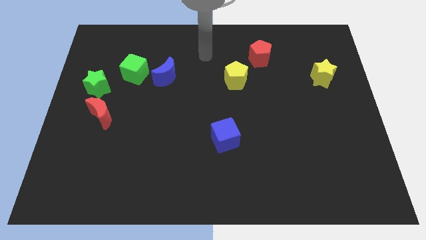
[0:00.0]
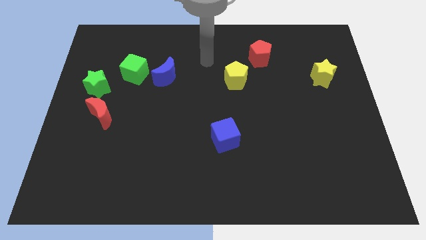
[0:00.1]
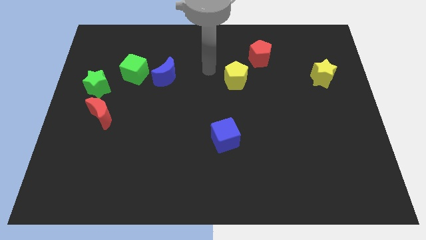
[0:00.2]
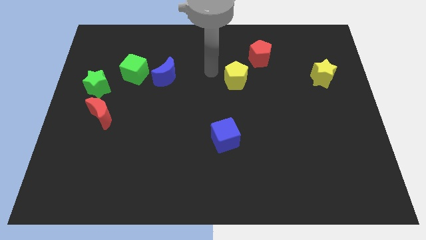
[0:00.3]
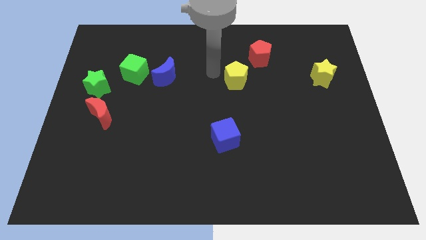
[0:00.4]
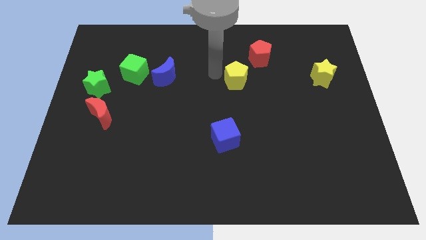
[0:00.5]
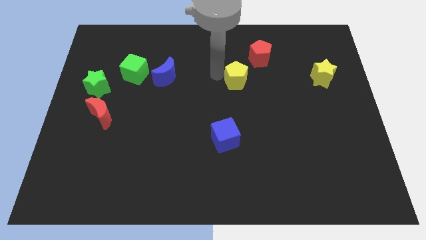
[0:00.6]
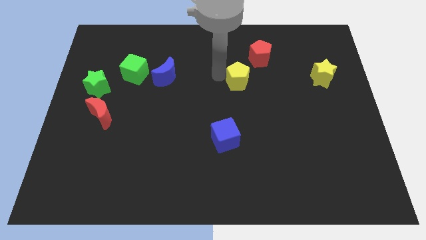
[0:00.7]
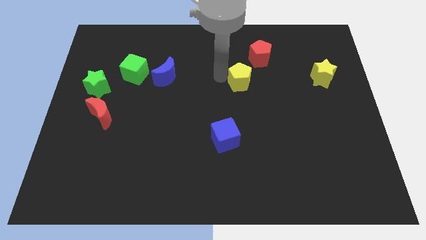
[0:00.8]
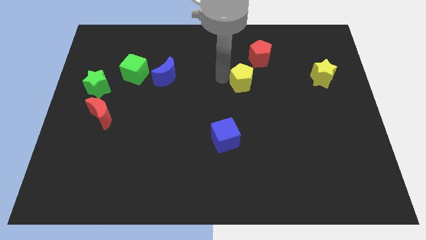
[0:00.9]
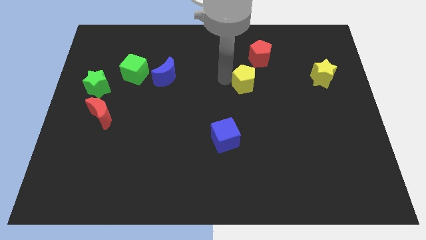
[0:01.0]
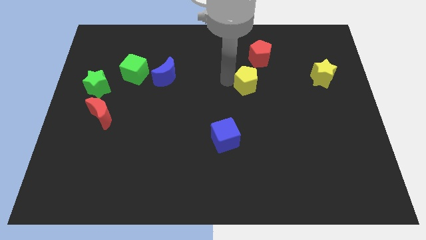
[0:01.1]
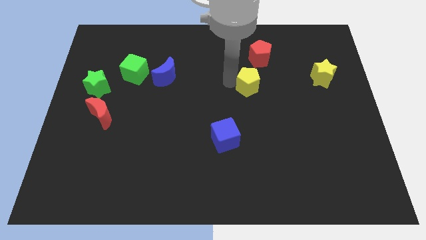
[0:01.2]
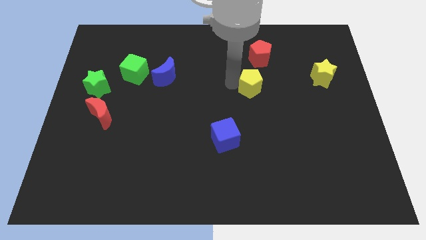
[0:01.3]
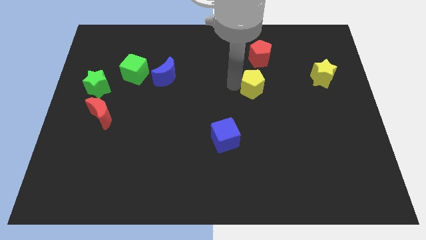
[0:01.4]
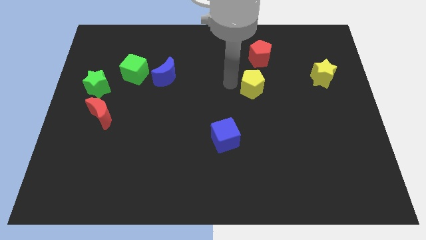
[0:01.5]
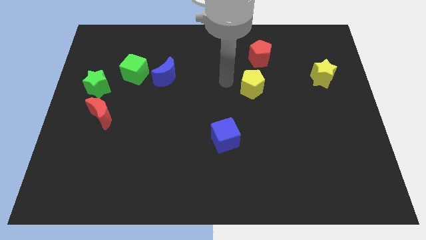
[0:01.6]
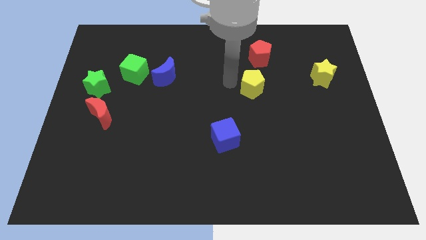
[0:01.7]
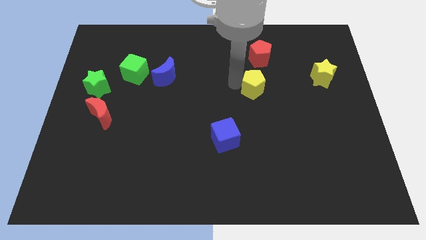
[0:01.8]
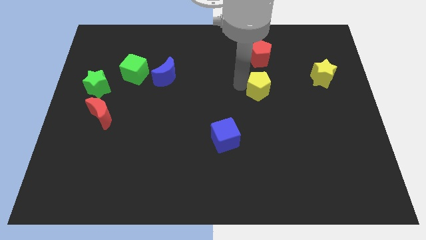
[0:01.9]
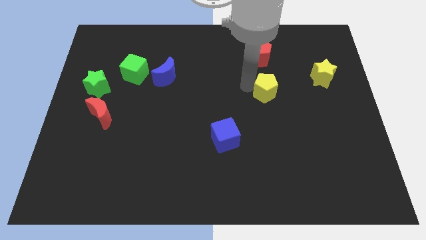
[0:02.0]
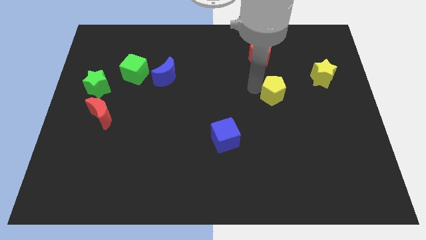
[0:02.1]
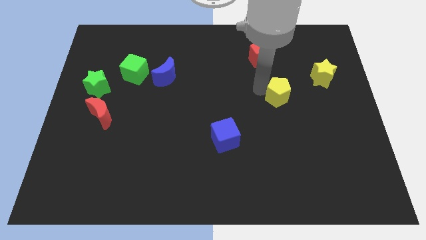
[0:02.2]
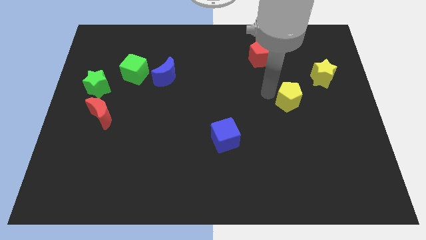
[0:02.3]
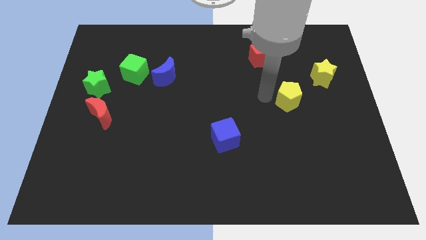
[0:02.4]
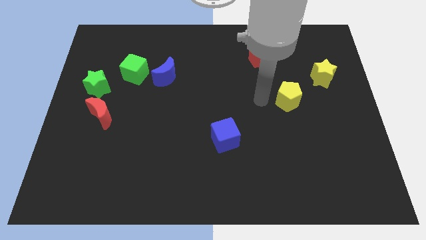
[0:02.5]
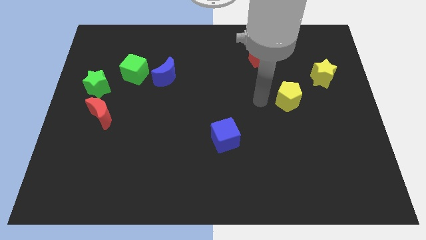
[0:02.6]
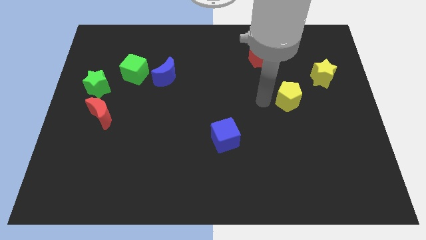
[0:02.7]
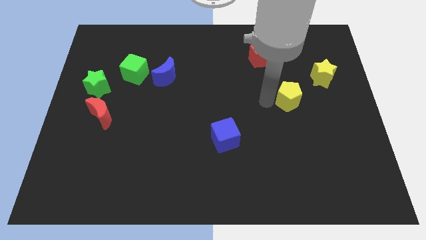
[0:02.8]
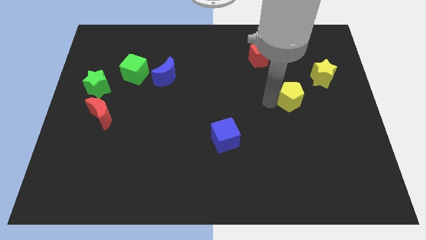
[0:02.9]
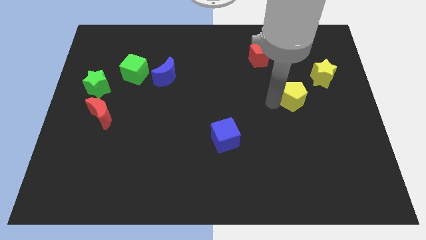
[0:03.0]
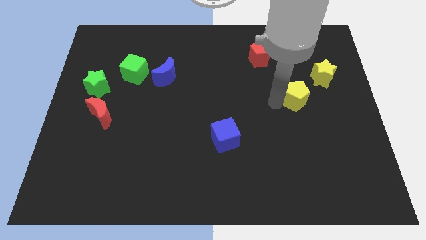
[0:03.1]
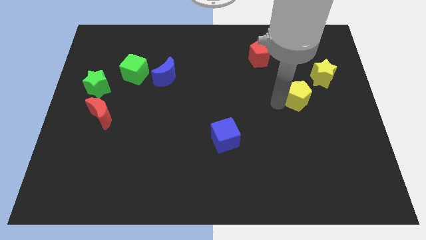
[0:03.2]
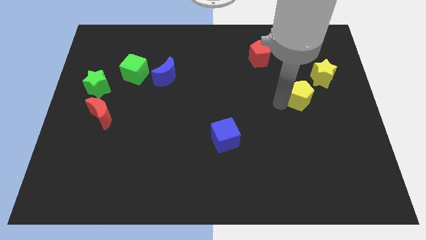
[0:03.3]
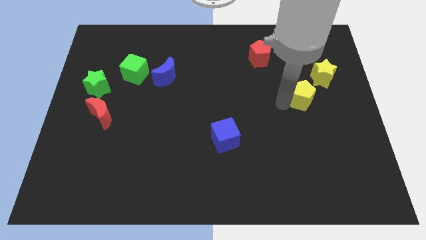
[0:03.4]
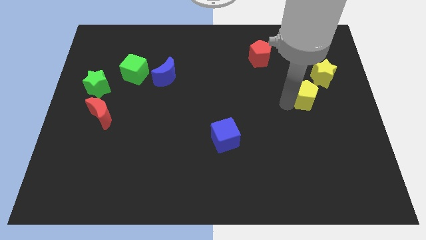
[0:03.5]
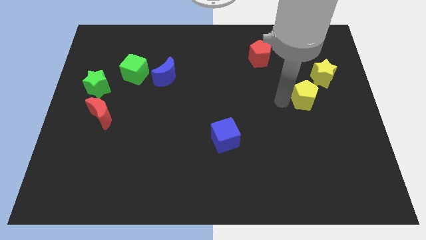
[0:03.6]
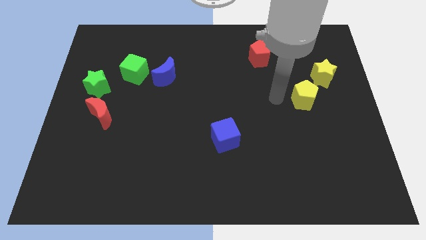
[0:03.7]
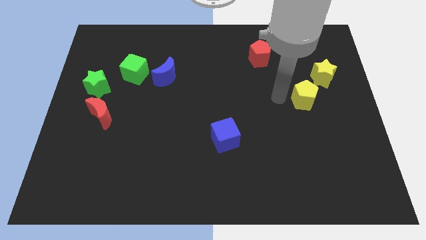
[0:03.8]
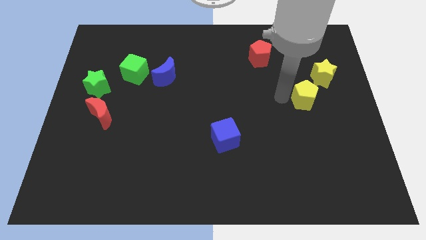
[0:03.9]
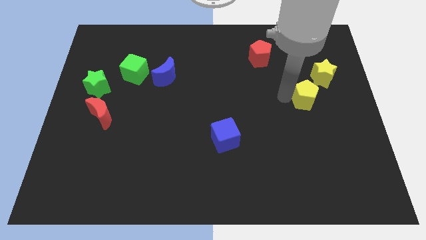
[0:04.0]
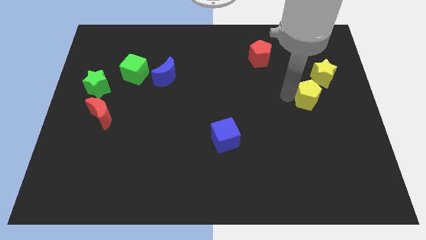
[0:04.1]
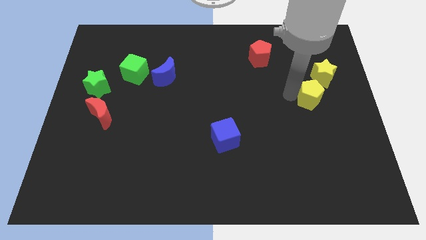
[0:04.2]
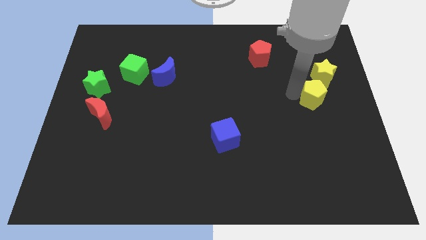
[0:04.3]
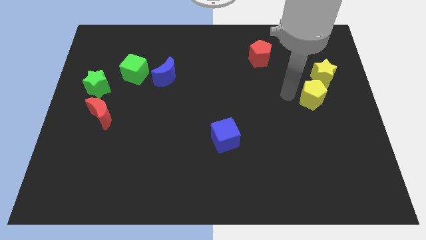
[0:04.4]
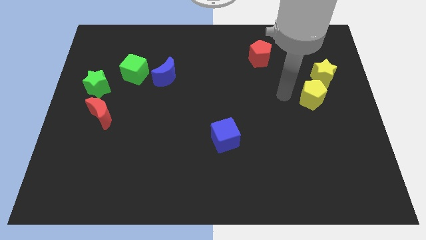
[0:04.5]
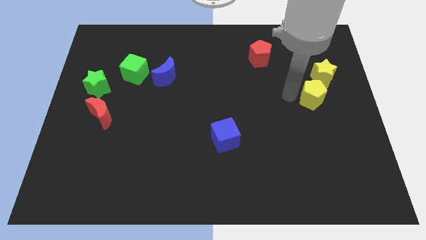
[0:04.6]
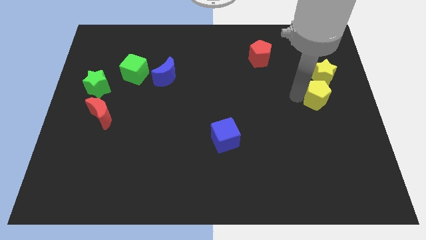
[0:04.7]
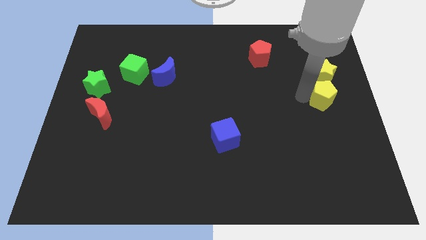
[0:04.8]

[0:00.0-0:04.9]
push the yellow pentagon to the right side of the board

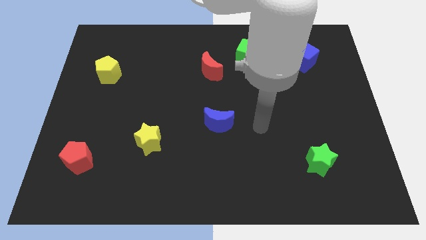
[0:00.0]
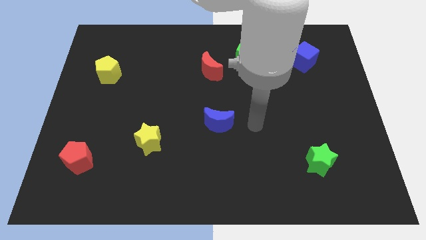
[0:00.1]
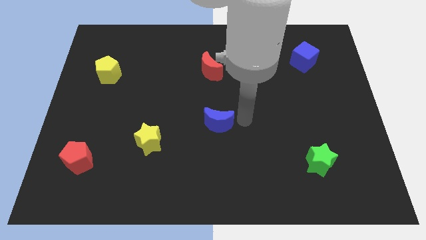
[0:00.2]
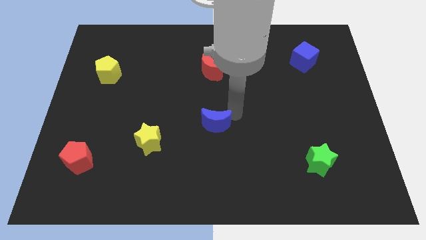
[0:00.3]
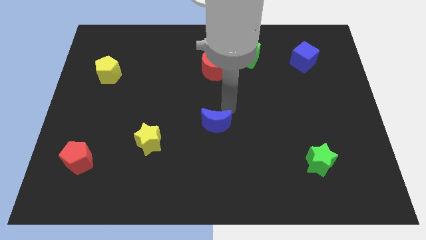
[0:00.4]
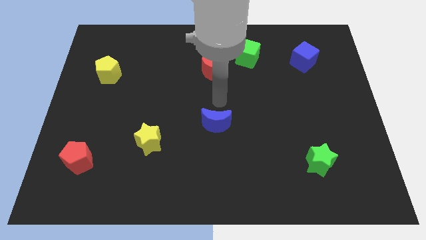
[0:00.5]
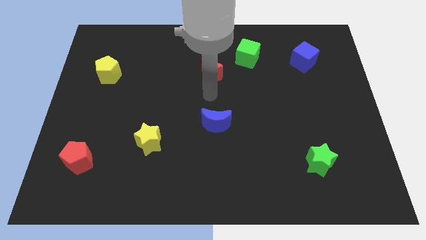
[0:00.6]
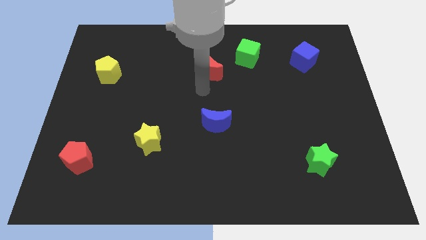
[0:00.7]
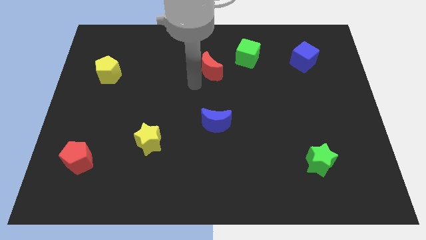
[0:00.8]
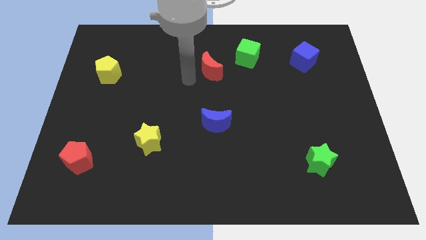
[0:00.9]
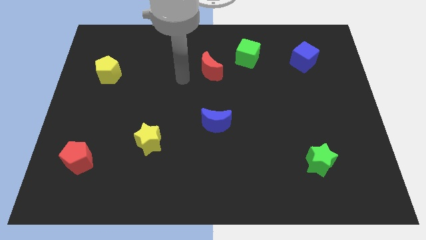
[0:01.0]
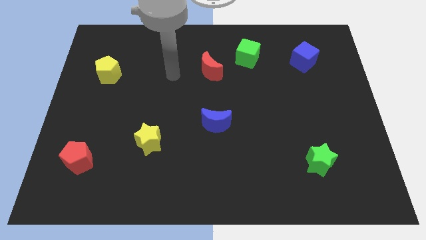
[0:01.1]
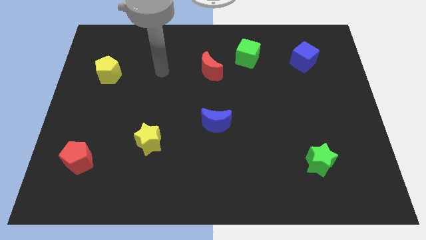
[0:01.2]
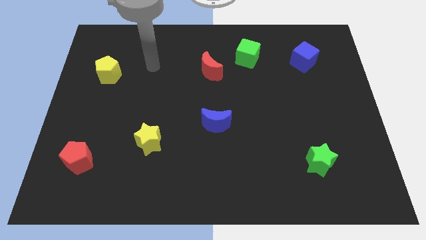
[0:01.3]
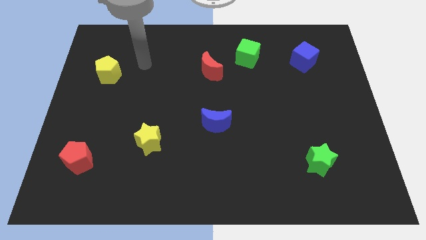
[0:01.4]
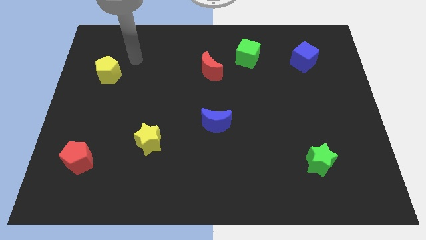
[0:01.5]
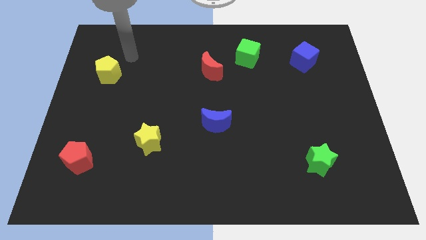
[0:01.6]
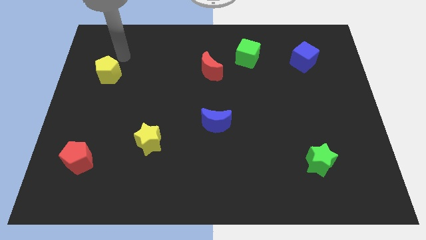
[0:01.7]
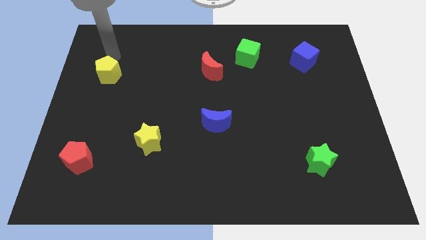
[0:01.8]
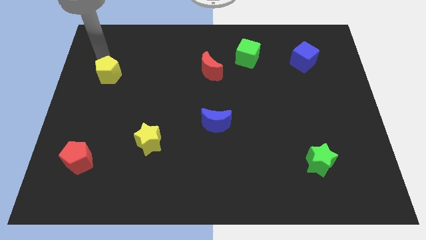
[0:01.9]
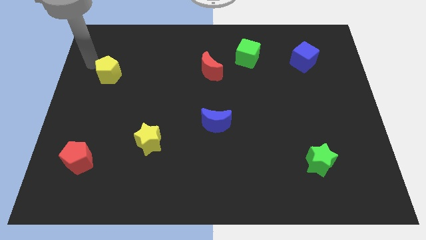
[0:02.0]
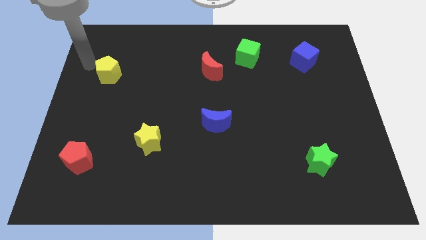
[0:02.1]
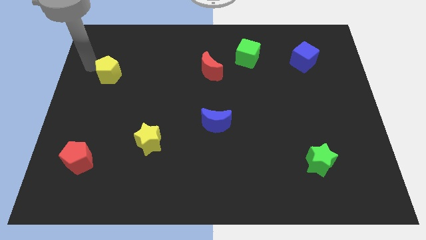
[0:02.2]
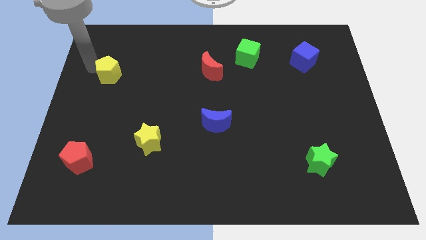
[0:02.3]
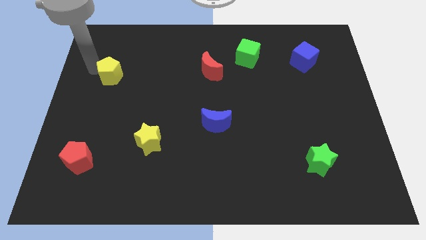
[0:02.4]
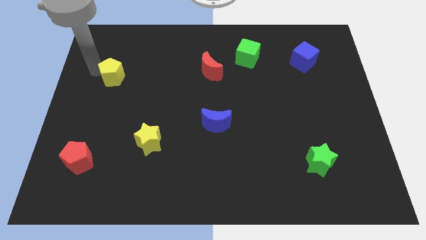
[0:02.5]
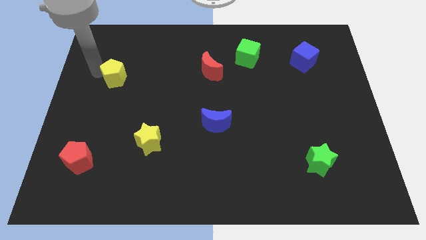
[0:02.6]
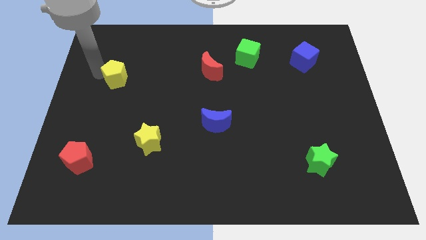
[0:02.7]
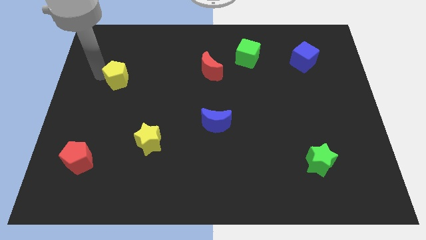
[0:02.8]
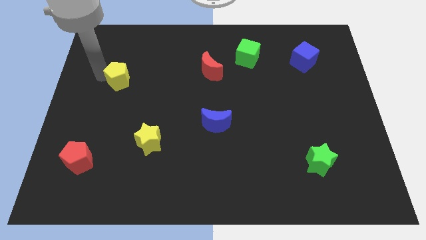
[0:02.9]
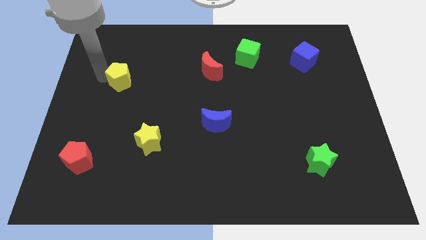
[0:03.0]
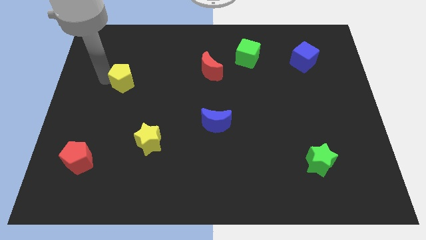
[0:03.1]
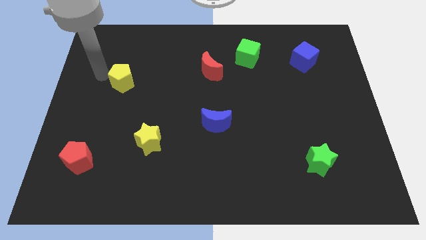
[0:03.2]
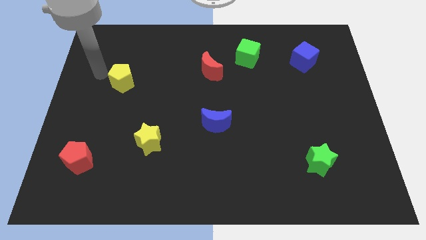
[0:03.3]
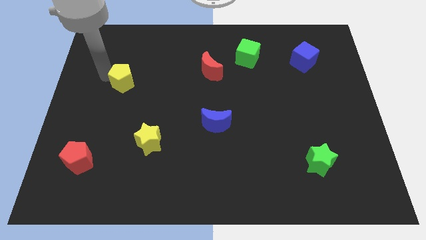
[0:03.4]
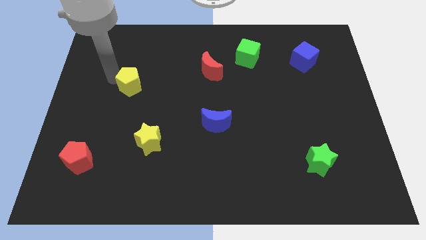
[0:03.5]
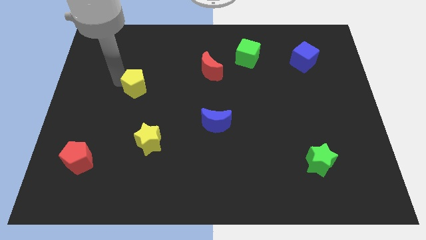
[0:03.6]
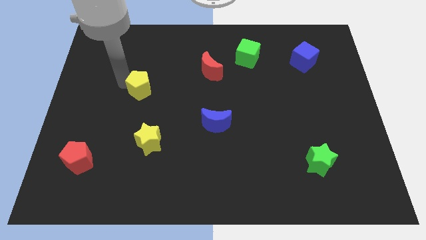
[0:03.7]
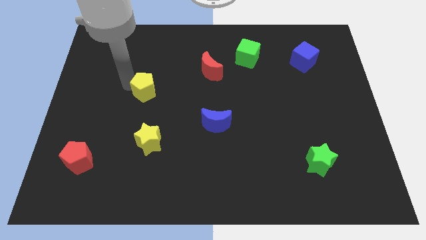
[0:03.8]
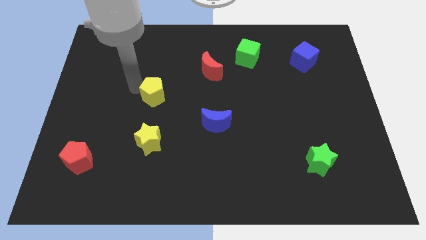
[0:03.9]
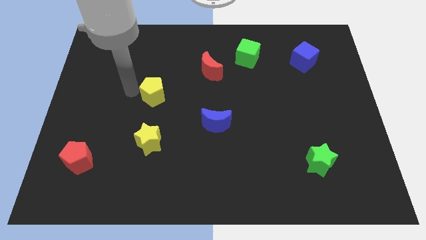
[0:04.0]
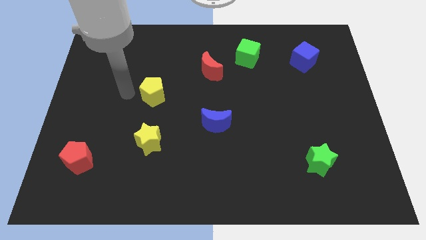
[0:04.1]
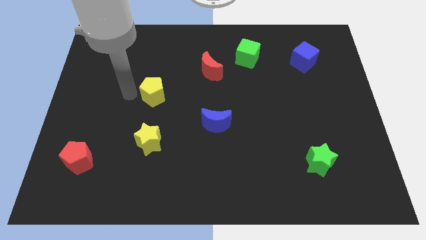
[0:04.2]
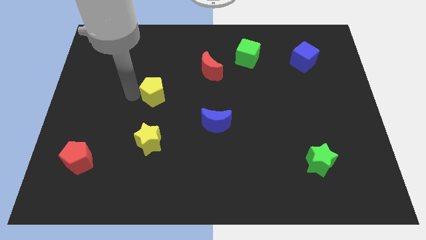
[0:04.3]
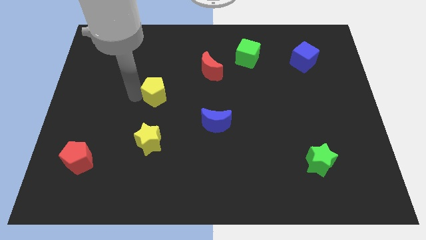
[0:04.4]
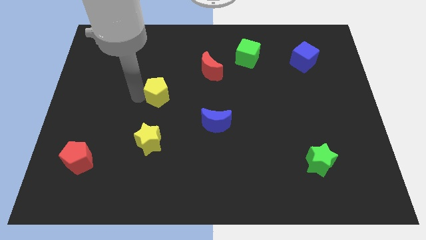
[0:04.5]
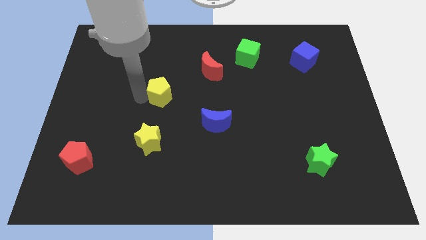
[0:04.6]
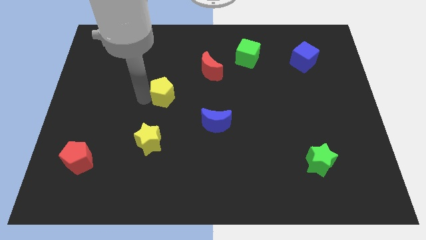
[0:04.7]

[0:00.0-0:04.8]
push the yellow pentagon to the middle of the board
